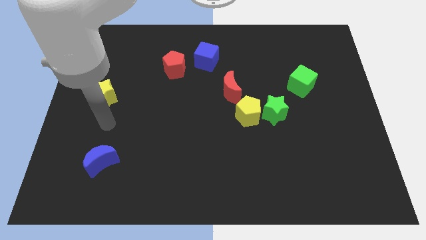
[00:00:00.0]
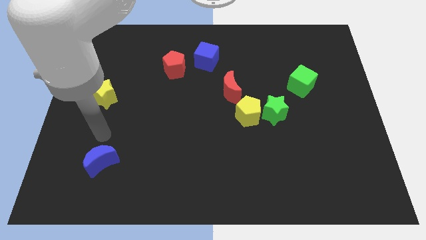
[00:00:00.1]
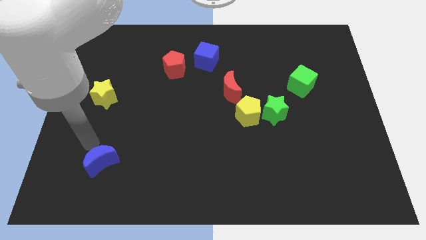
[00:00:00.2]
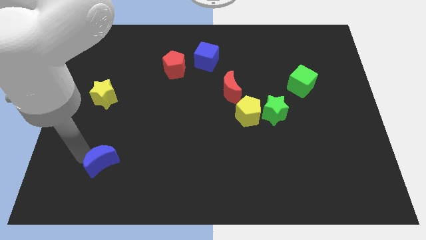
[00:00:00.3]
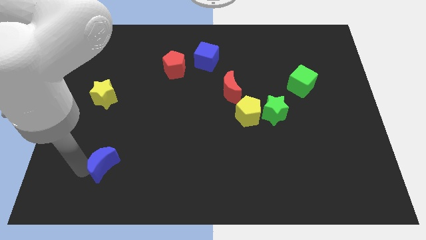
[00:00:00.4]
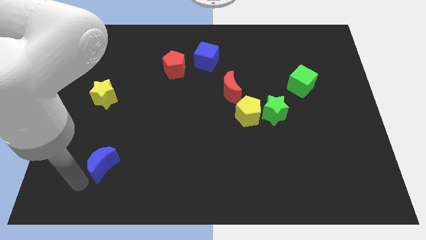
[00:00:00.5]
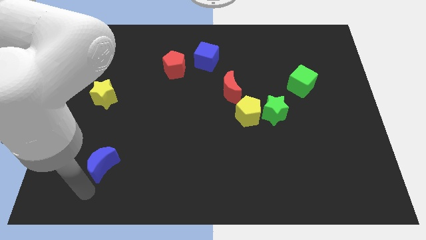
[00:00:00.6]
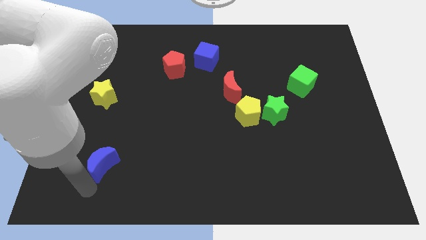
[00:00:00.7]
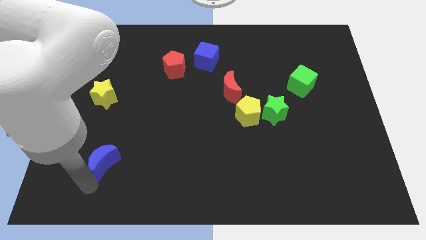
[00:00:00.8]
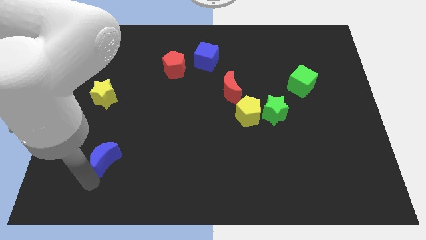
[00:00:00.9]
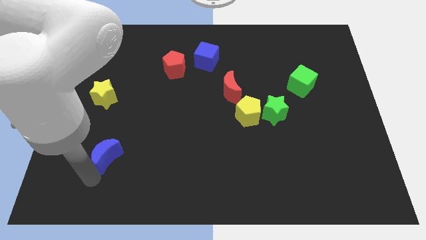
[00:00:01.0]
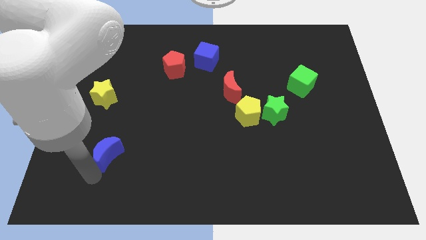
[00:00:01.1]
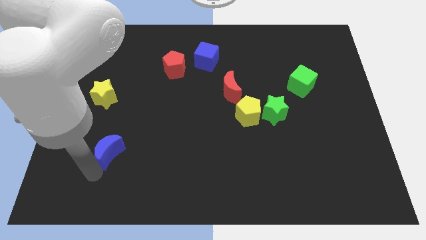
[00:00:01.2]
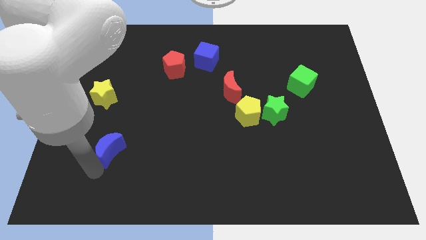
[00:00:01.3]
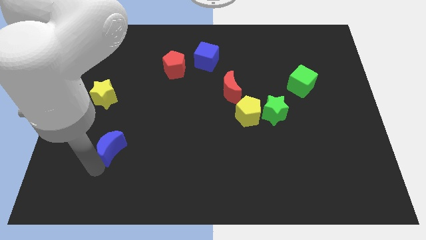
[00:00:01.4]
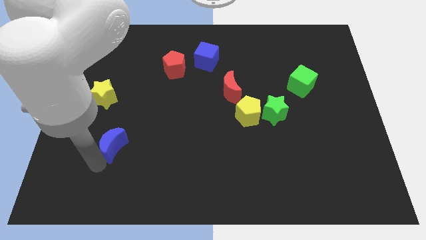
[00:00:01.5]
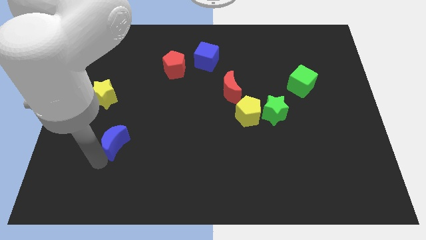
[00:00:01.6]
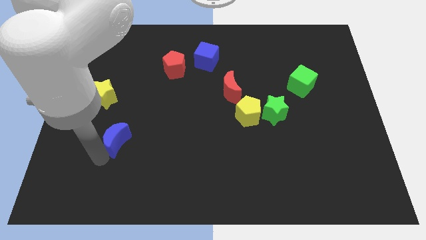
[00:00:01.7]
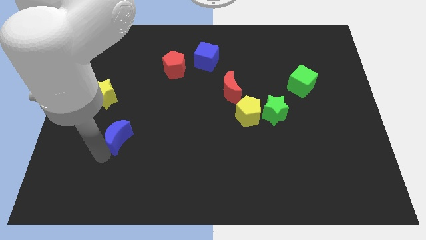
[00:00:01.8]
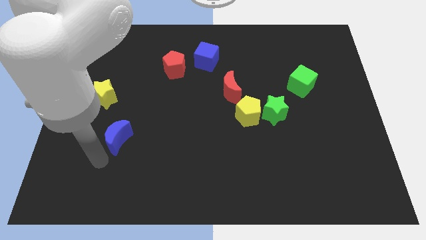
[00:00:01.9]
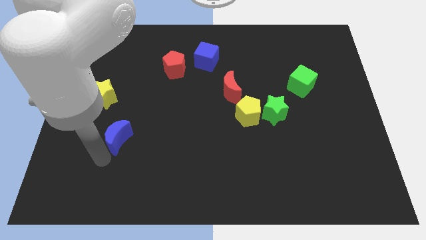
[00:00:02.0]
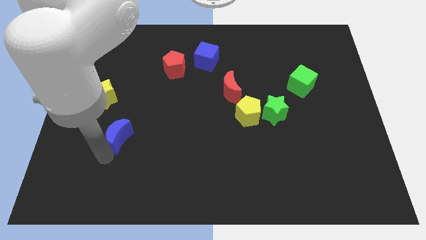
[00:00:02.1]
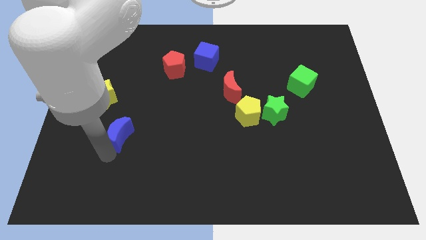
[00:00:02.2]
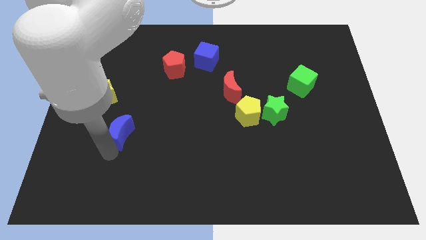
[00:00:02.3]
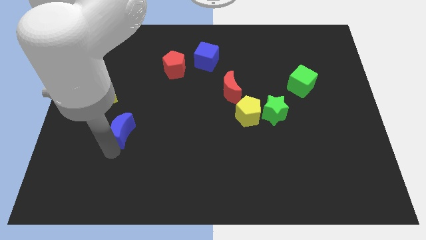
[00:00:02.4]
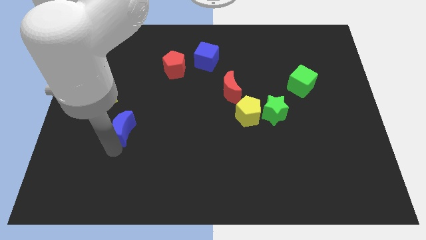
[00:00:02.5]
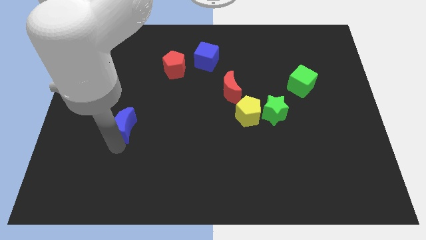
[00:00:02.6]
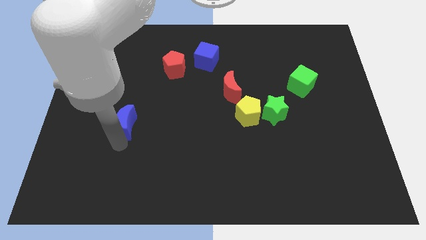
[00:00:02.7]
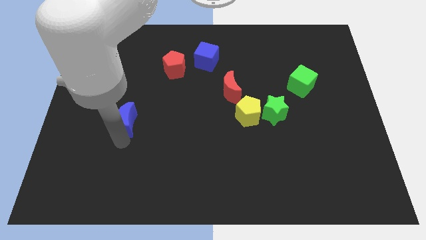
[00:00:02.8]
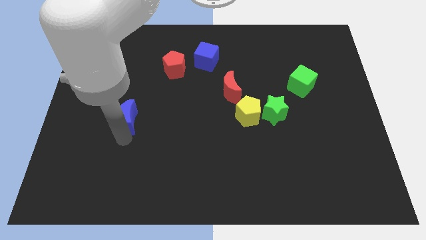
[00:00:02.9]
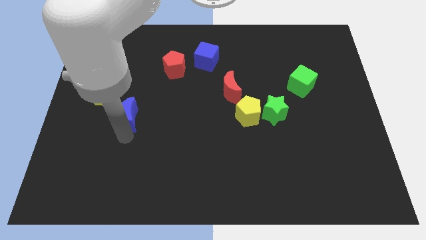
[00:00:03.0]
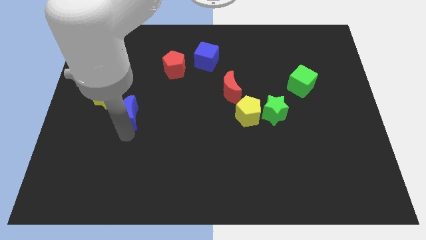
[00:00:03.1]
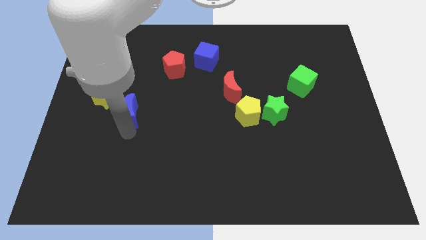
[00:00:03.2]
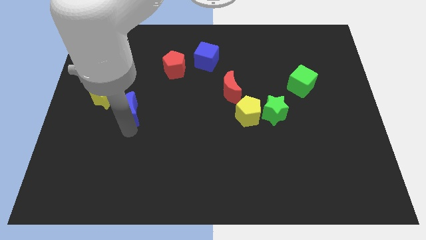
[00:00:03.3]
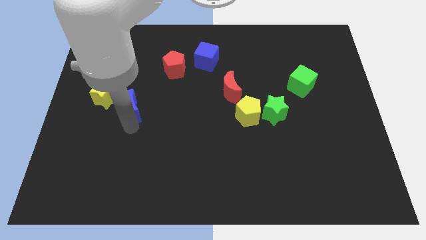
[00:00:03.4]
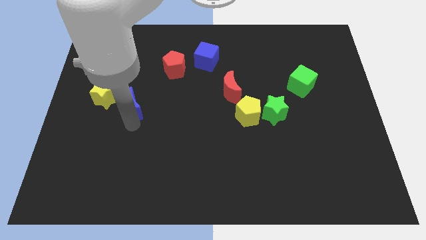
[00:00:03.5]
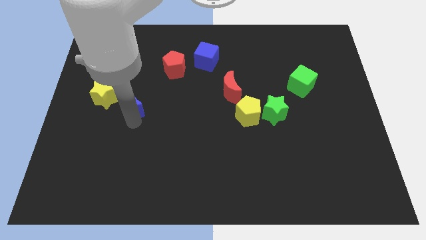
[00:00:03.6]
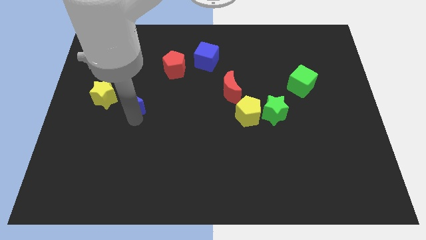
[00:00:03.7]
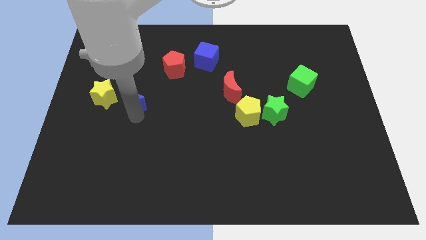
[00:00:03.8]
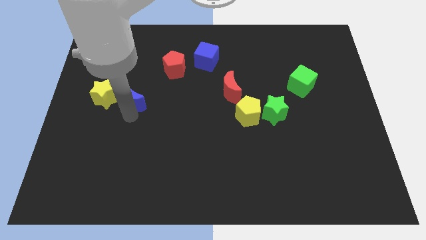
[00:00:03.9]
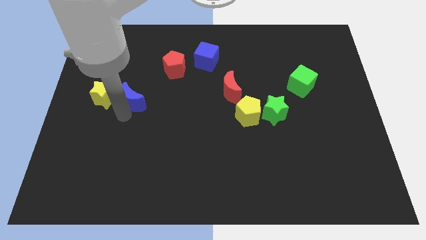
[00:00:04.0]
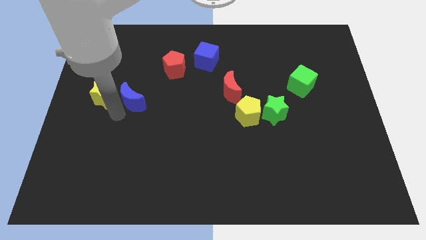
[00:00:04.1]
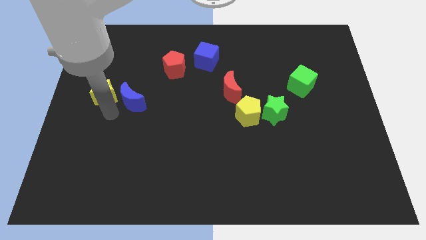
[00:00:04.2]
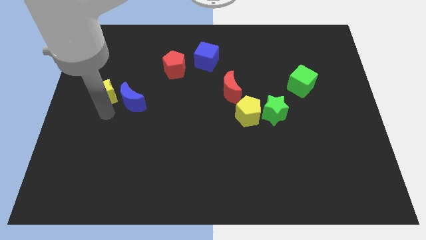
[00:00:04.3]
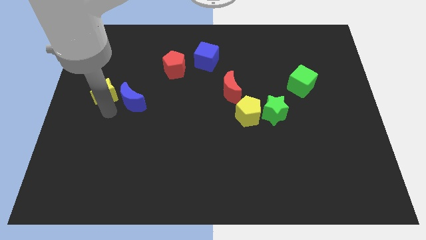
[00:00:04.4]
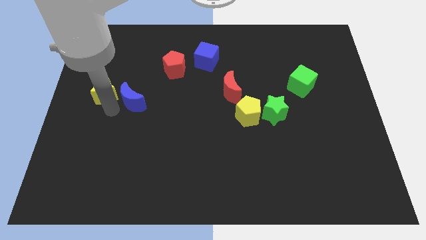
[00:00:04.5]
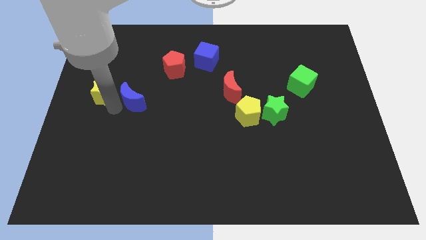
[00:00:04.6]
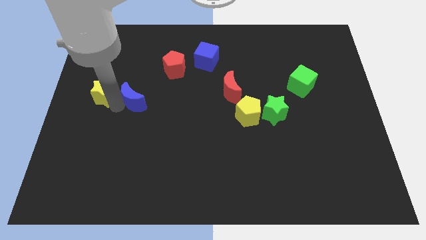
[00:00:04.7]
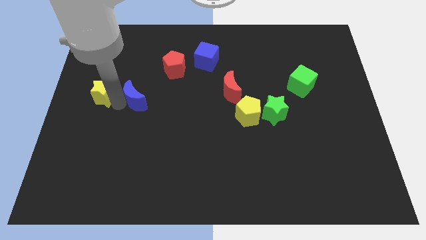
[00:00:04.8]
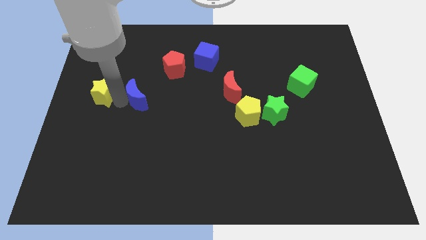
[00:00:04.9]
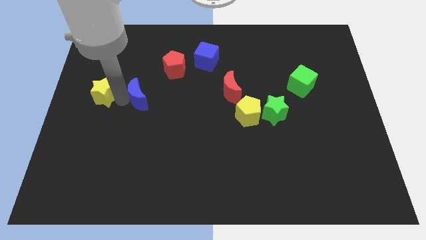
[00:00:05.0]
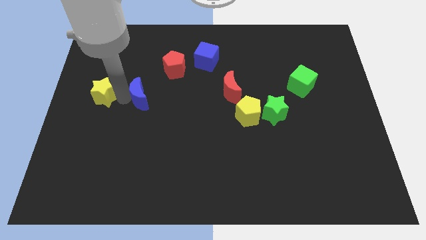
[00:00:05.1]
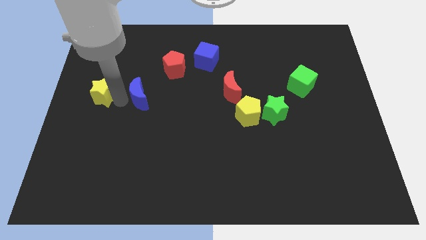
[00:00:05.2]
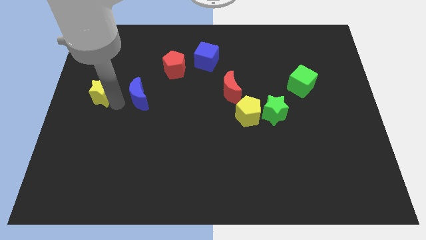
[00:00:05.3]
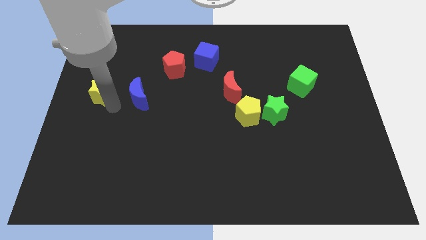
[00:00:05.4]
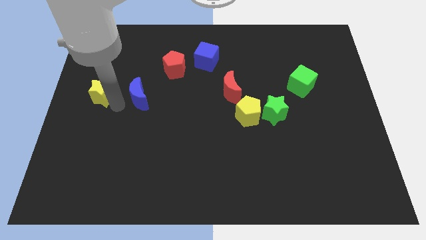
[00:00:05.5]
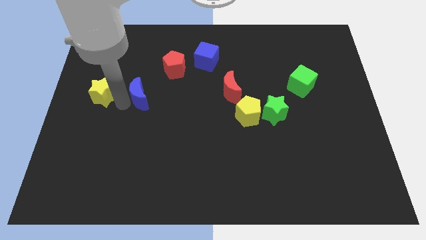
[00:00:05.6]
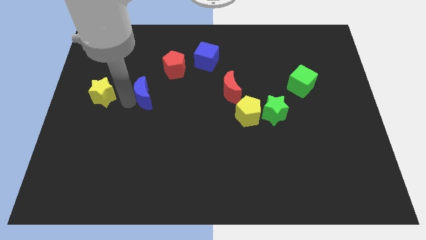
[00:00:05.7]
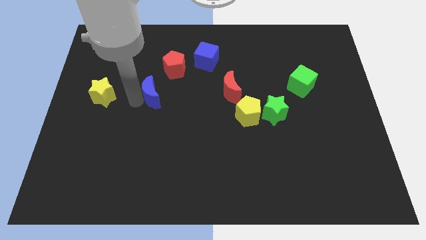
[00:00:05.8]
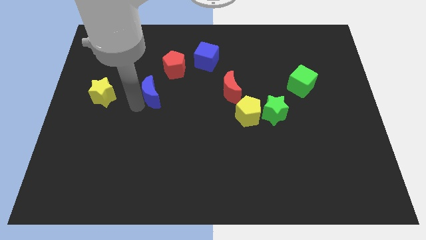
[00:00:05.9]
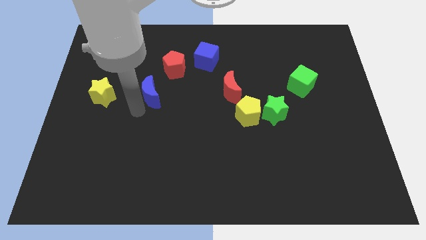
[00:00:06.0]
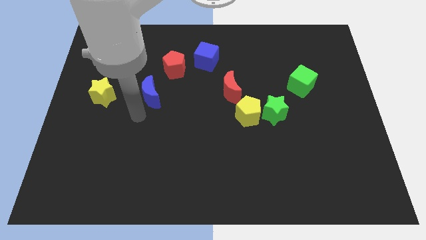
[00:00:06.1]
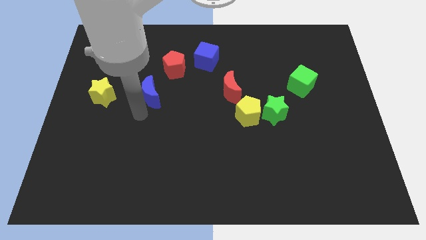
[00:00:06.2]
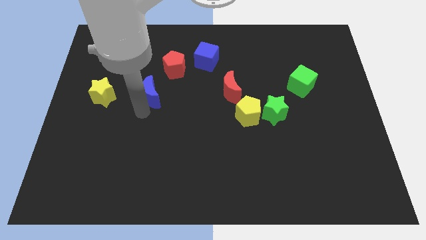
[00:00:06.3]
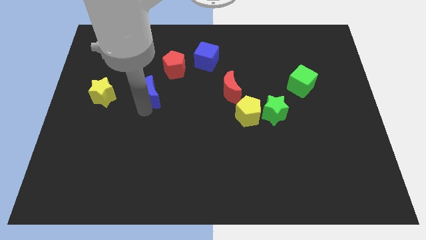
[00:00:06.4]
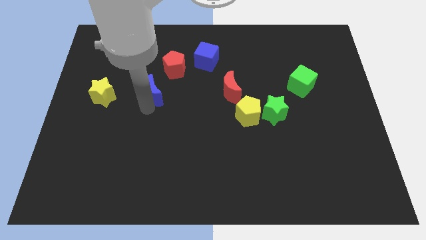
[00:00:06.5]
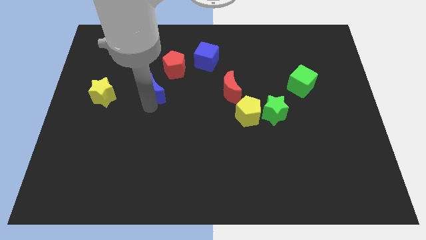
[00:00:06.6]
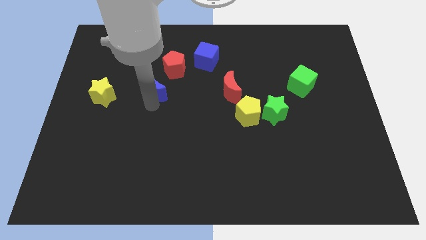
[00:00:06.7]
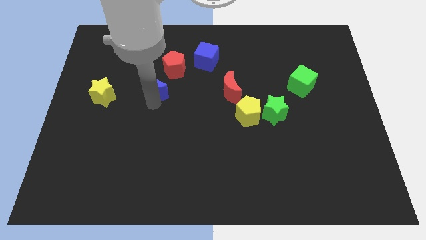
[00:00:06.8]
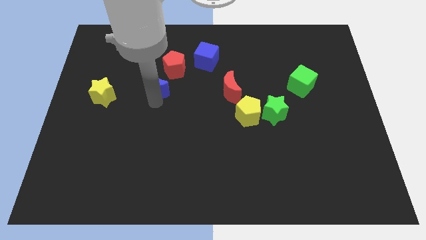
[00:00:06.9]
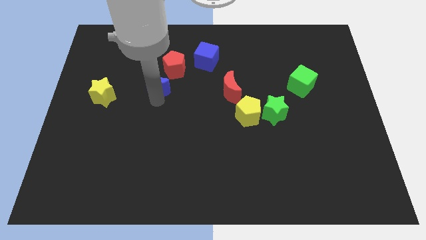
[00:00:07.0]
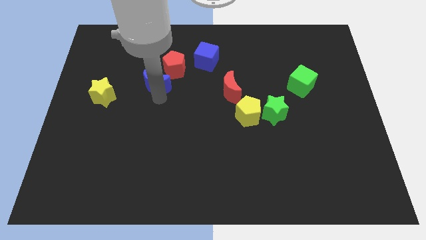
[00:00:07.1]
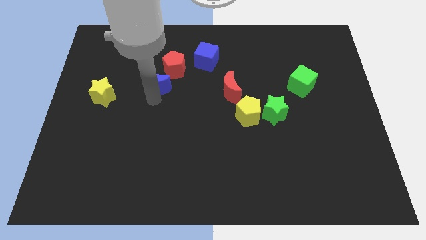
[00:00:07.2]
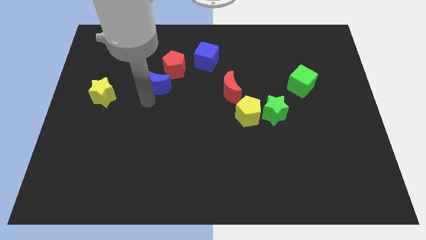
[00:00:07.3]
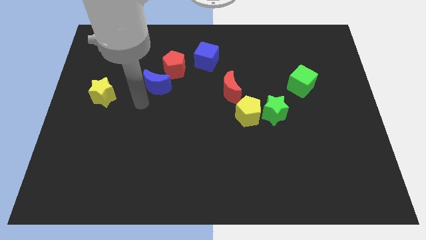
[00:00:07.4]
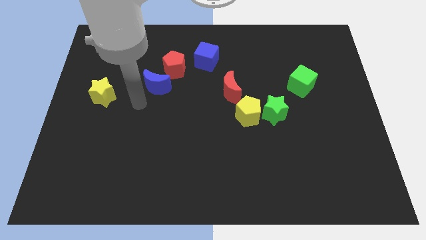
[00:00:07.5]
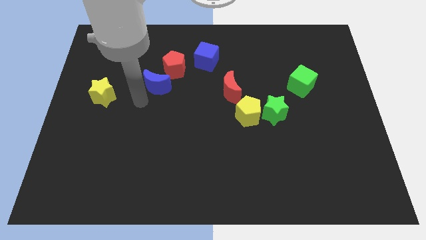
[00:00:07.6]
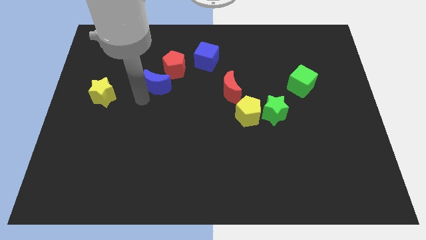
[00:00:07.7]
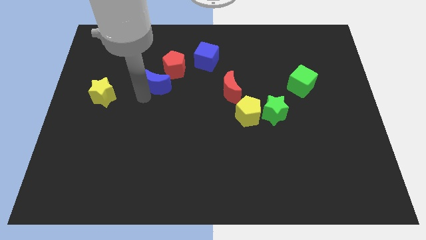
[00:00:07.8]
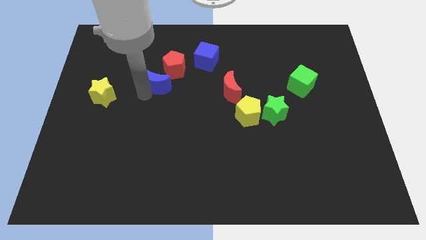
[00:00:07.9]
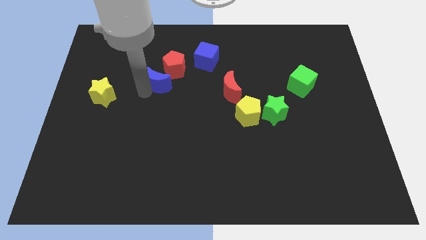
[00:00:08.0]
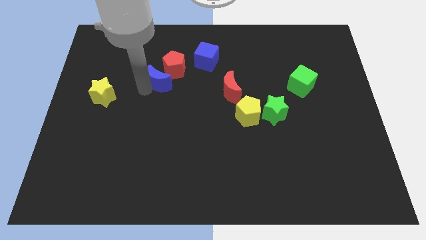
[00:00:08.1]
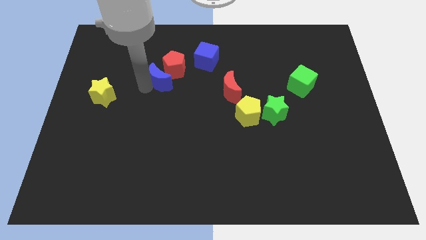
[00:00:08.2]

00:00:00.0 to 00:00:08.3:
slide the blue moon towards the red pentagon
